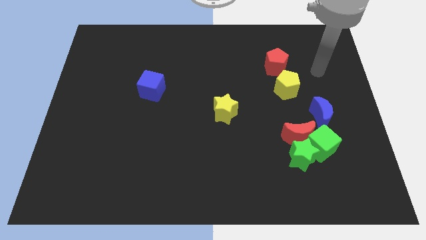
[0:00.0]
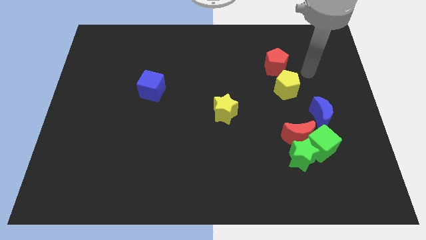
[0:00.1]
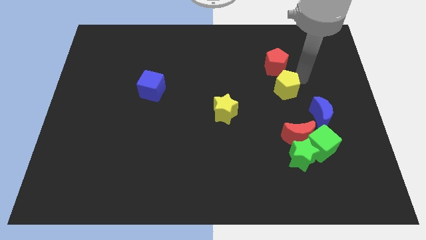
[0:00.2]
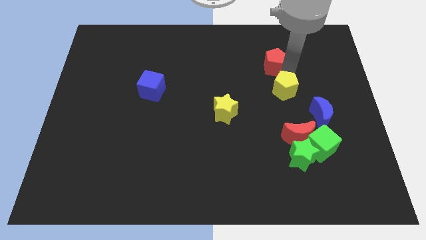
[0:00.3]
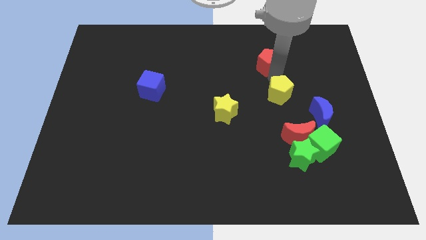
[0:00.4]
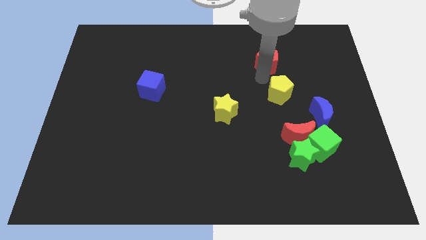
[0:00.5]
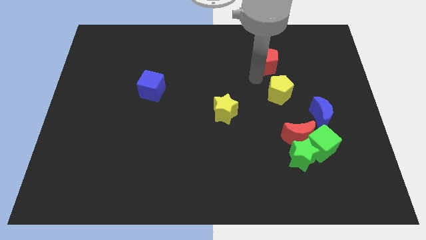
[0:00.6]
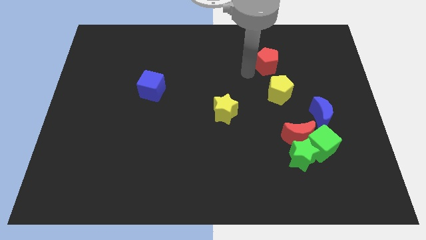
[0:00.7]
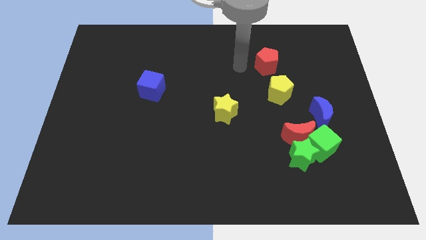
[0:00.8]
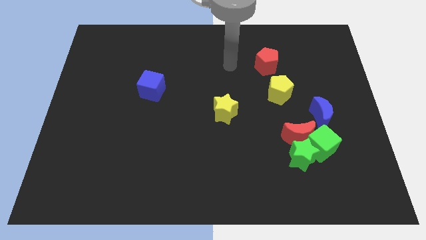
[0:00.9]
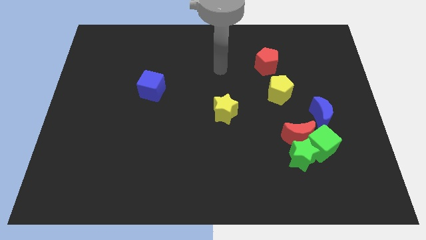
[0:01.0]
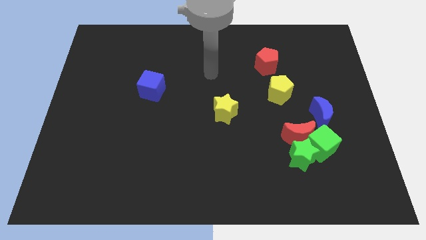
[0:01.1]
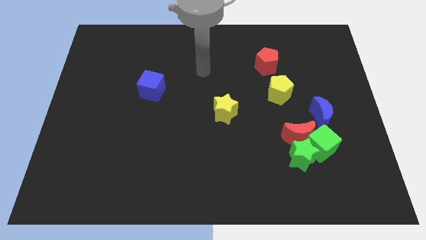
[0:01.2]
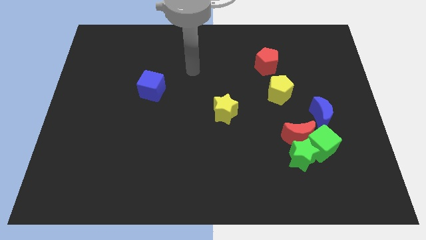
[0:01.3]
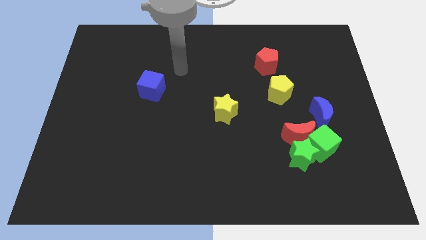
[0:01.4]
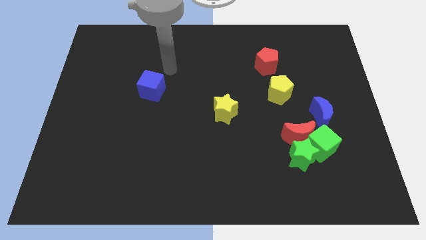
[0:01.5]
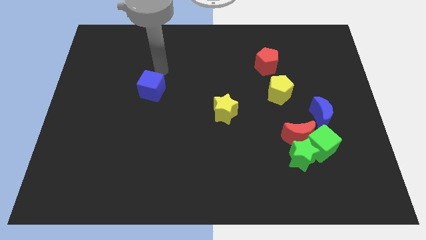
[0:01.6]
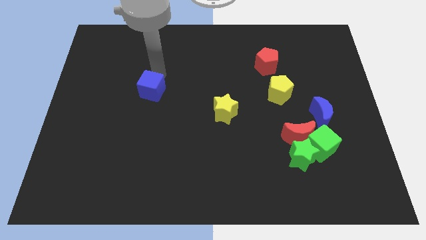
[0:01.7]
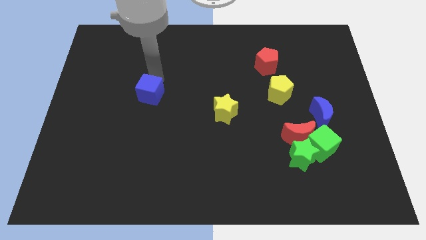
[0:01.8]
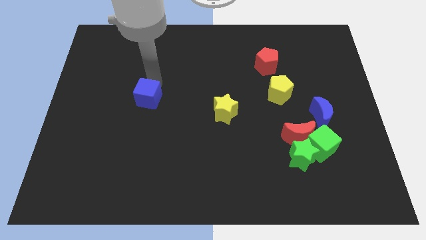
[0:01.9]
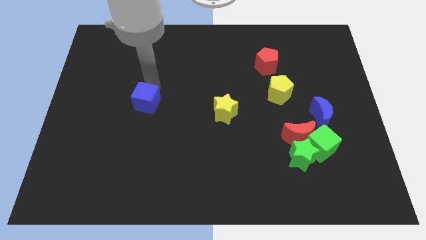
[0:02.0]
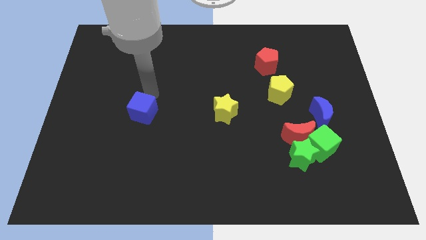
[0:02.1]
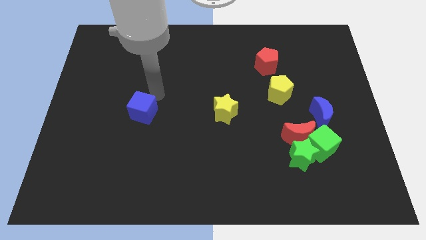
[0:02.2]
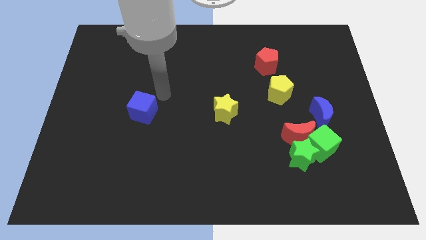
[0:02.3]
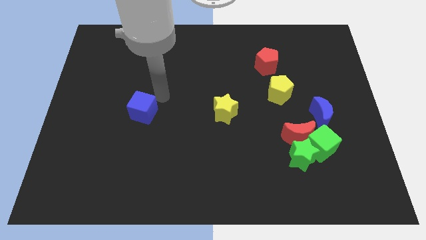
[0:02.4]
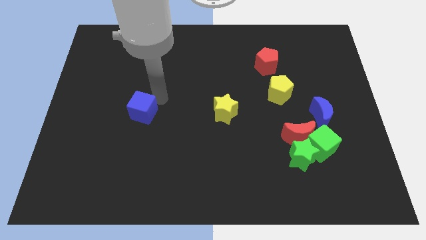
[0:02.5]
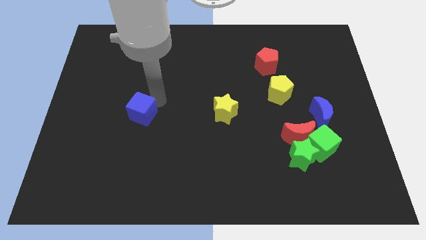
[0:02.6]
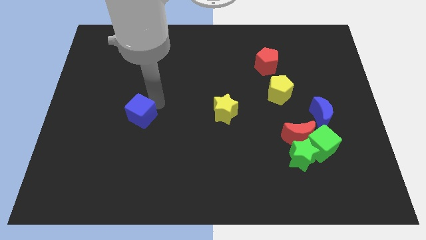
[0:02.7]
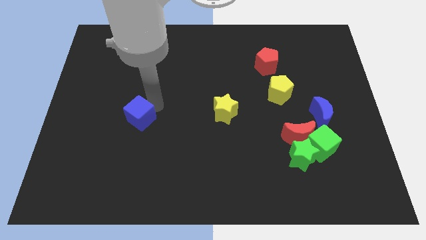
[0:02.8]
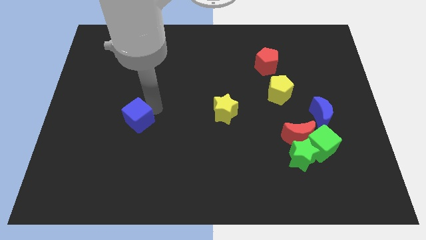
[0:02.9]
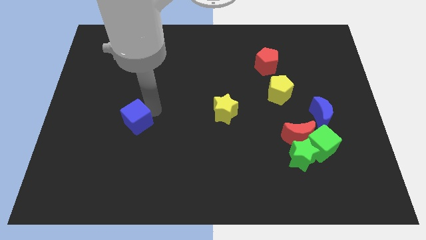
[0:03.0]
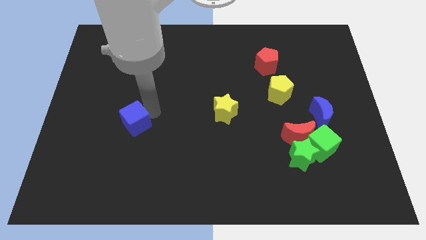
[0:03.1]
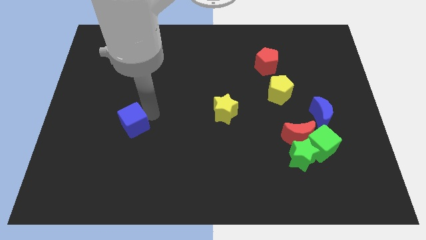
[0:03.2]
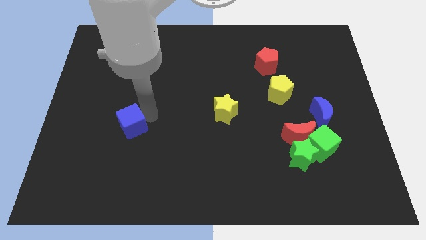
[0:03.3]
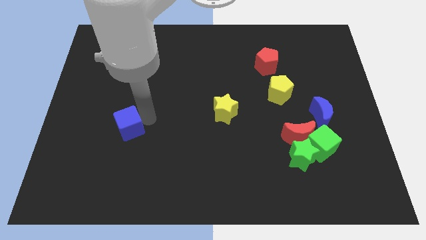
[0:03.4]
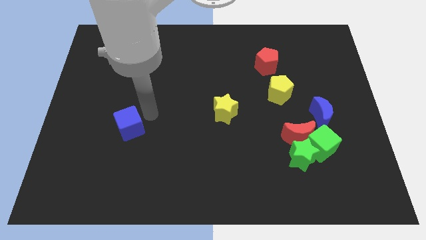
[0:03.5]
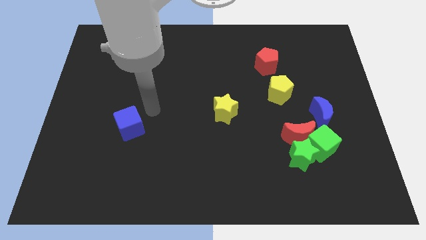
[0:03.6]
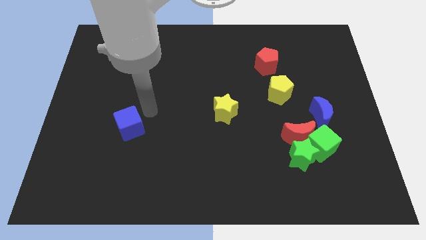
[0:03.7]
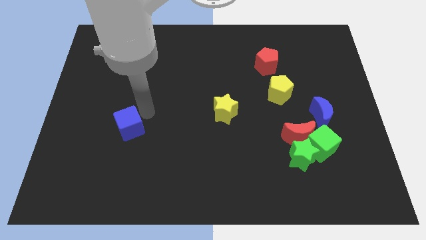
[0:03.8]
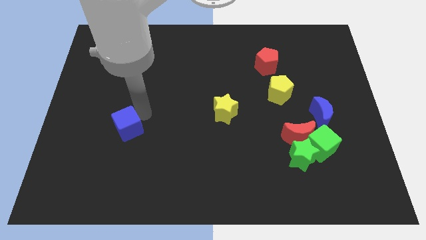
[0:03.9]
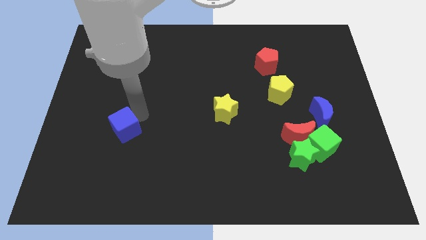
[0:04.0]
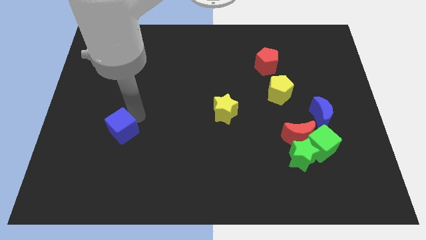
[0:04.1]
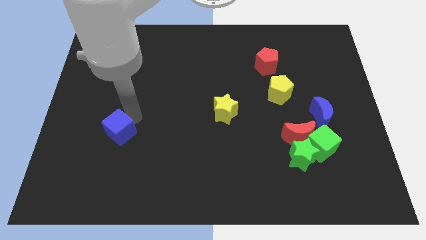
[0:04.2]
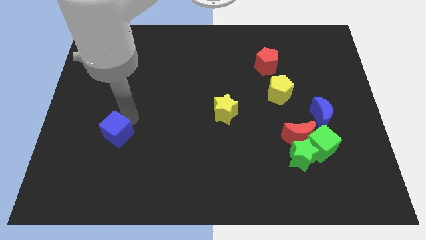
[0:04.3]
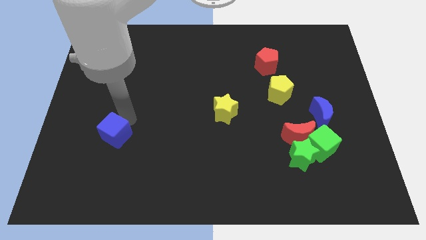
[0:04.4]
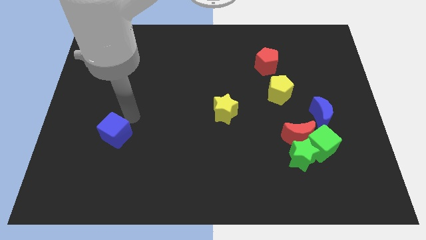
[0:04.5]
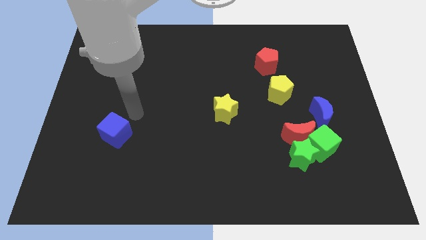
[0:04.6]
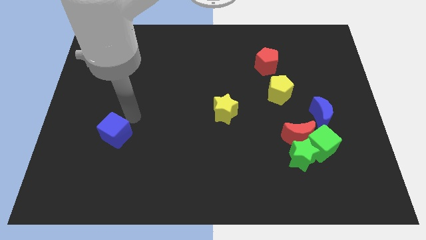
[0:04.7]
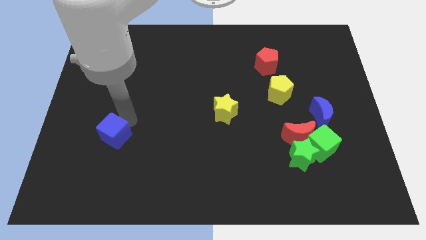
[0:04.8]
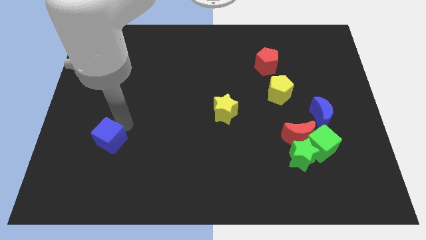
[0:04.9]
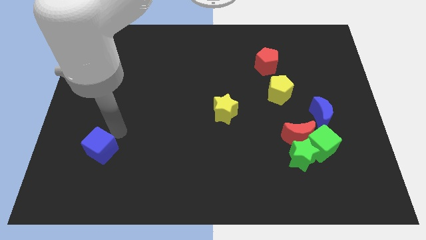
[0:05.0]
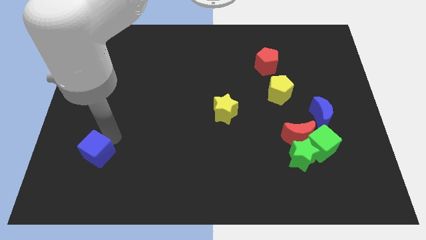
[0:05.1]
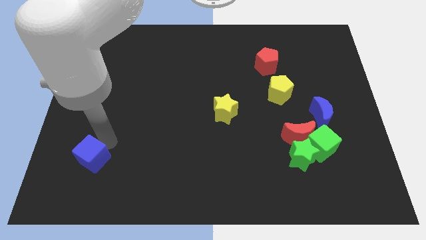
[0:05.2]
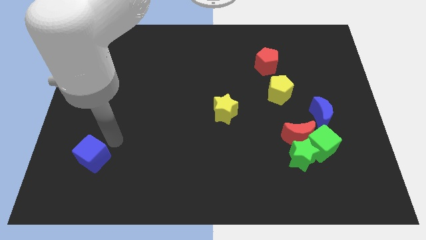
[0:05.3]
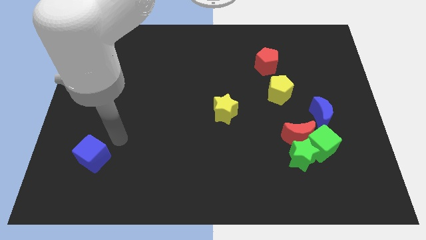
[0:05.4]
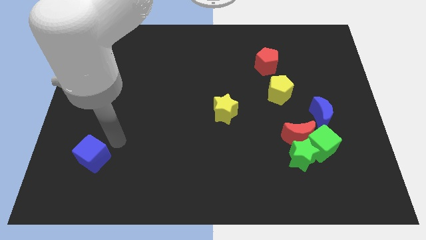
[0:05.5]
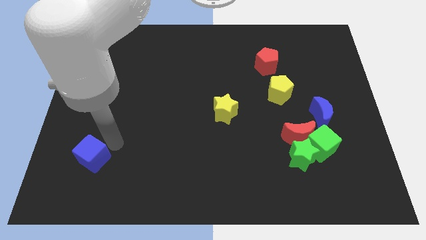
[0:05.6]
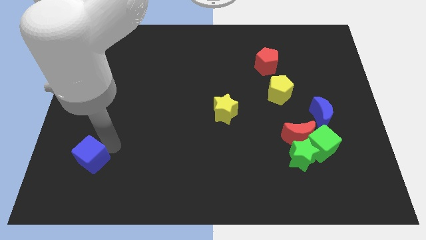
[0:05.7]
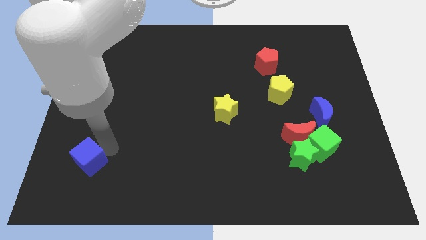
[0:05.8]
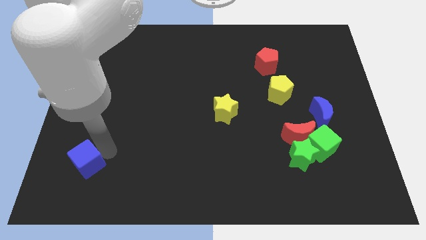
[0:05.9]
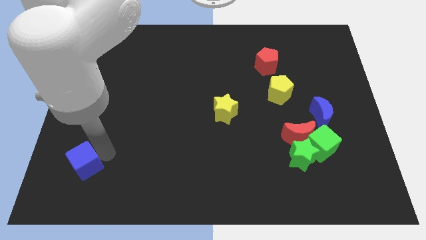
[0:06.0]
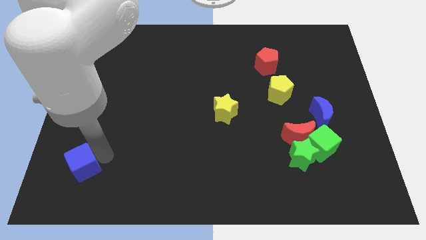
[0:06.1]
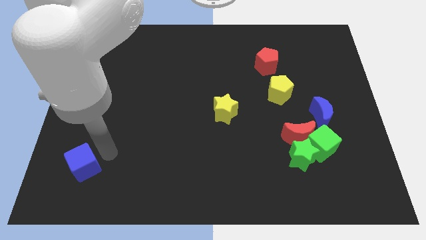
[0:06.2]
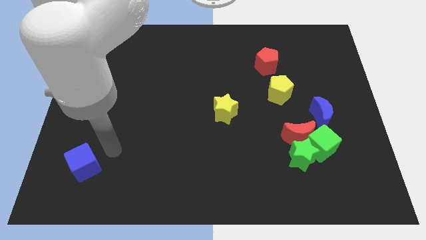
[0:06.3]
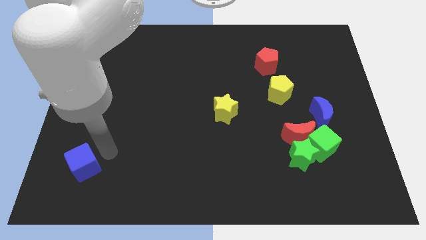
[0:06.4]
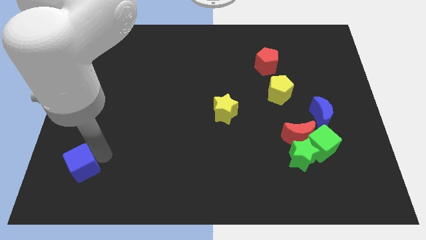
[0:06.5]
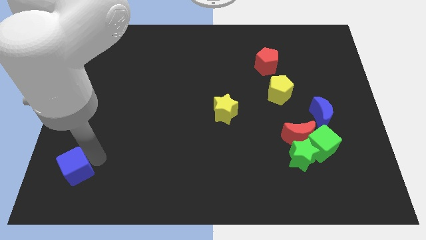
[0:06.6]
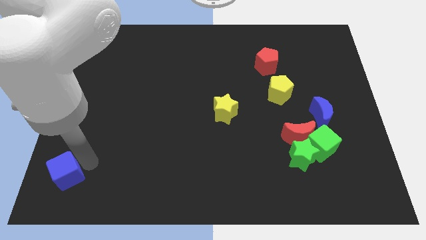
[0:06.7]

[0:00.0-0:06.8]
slide the blue cube to the bottom left of the board
